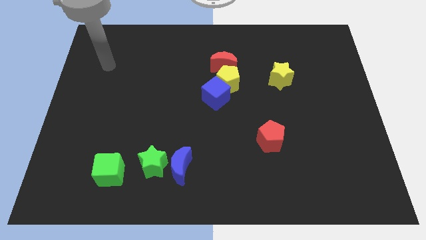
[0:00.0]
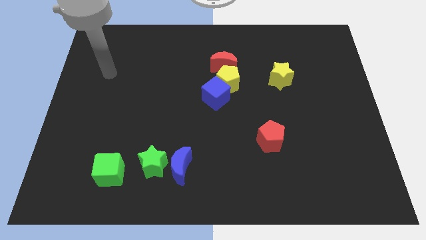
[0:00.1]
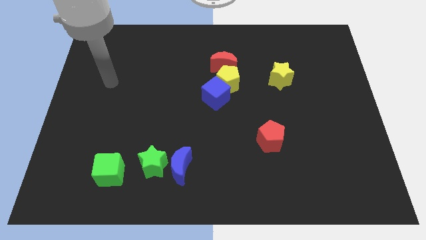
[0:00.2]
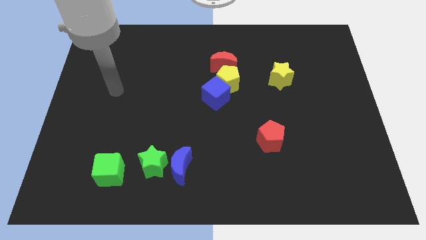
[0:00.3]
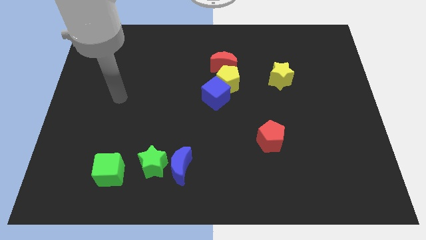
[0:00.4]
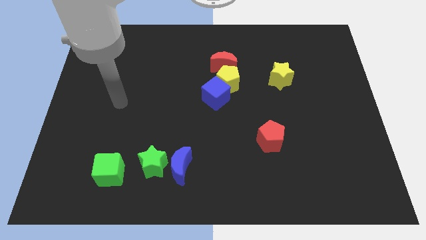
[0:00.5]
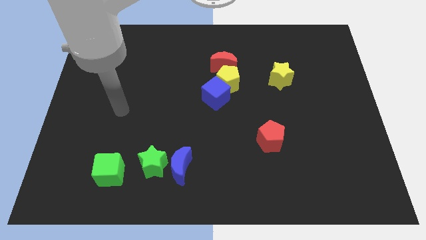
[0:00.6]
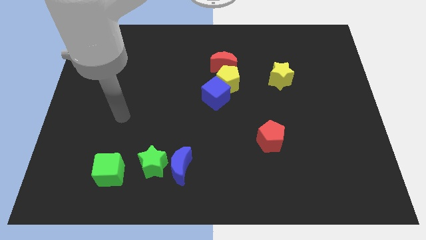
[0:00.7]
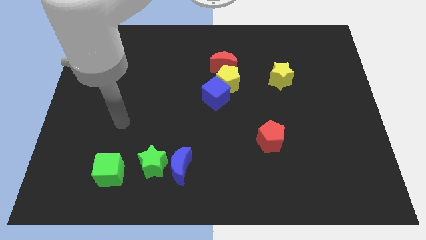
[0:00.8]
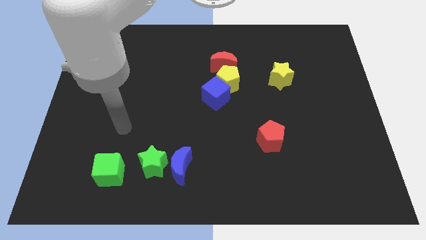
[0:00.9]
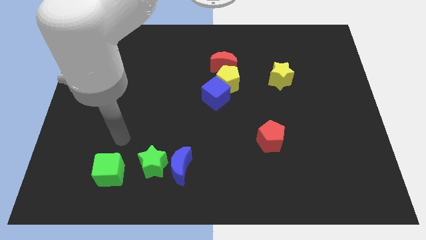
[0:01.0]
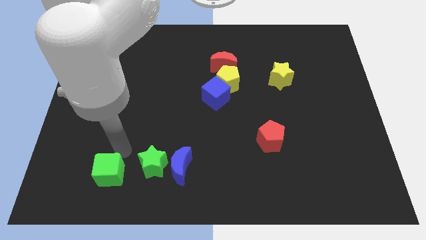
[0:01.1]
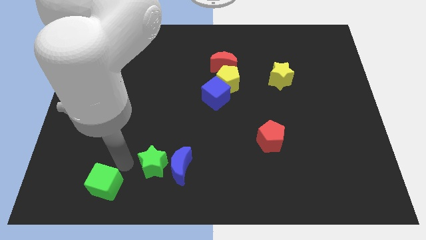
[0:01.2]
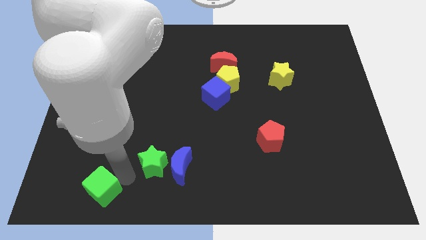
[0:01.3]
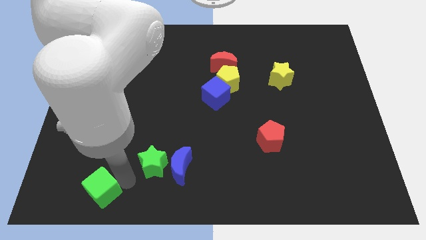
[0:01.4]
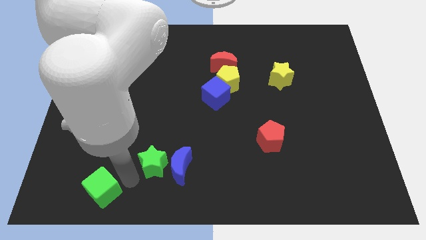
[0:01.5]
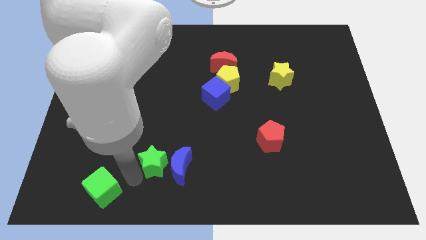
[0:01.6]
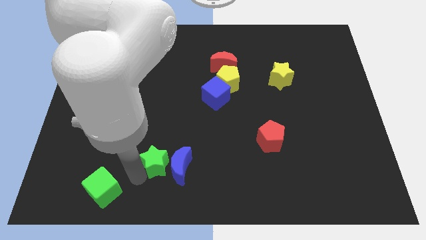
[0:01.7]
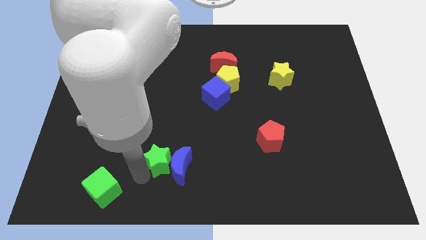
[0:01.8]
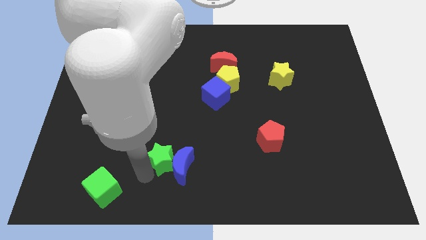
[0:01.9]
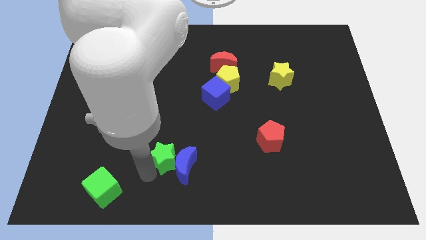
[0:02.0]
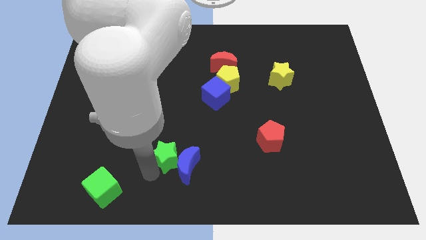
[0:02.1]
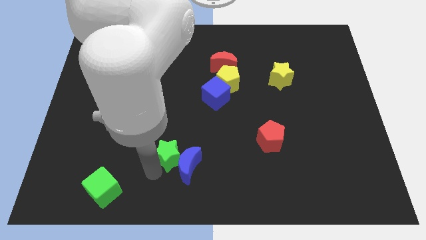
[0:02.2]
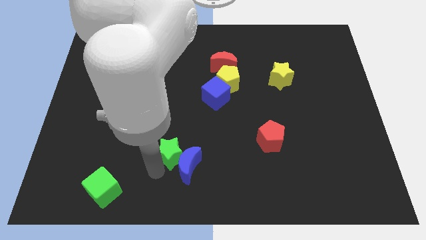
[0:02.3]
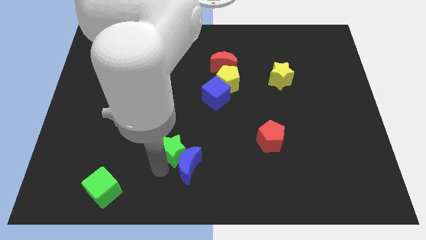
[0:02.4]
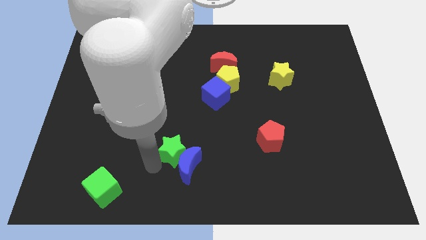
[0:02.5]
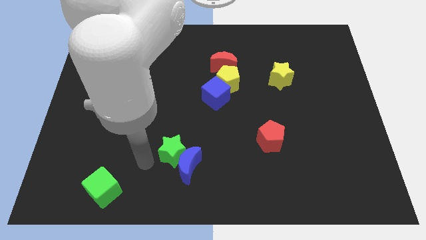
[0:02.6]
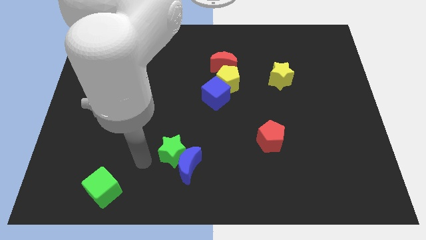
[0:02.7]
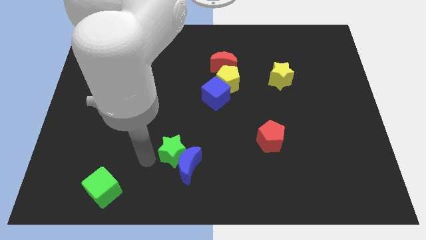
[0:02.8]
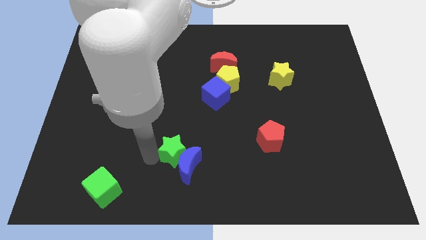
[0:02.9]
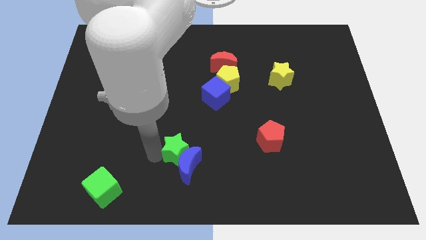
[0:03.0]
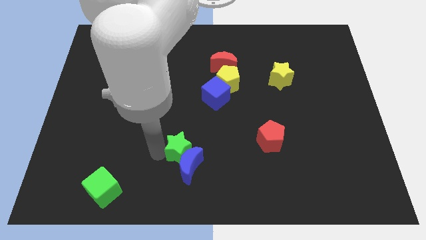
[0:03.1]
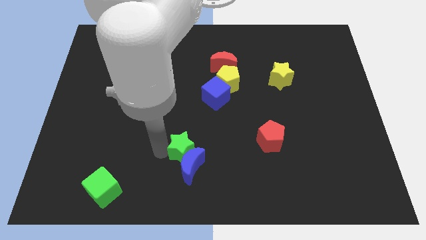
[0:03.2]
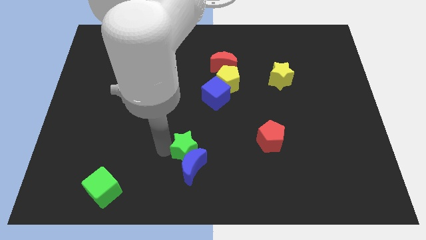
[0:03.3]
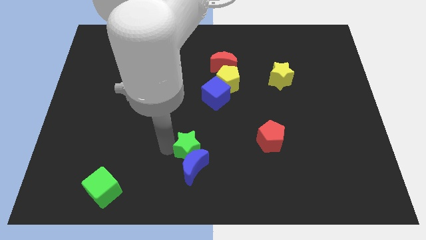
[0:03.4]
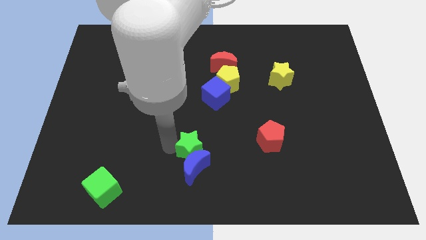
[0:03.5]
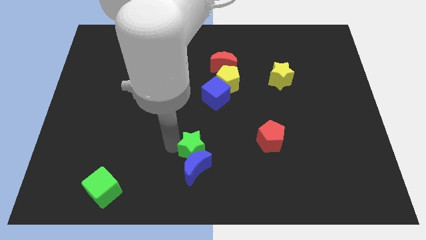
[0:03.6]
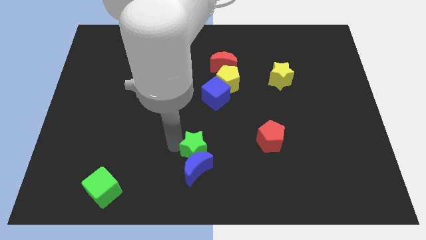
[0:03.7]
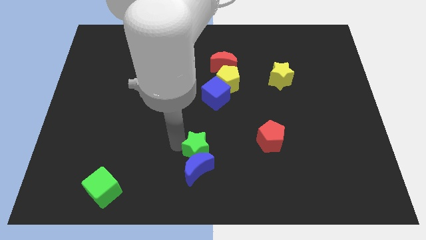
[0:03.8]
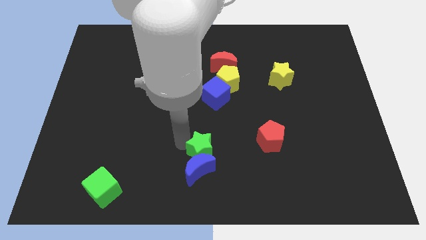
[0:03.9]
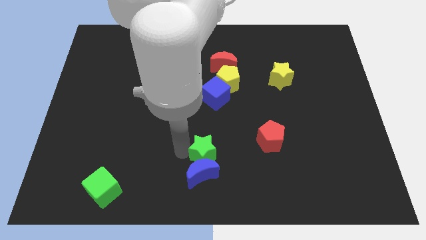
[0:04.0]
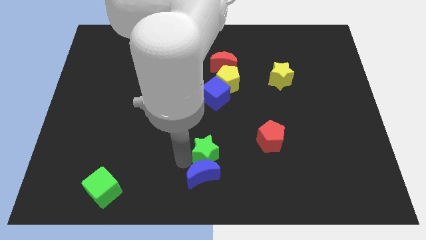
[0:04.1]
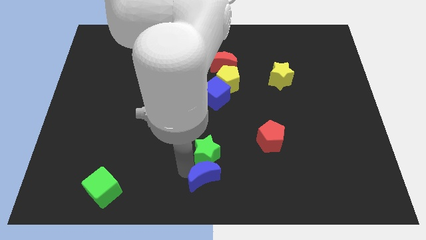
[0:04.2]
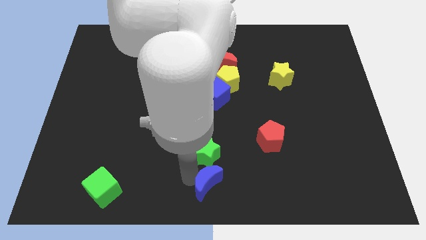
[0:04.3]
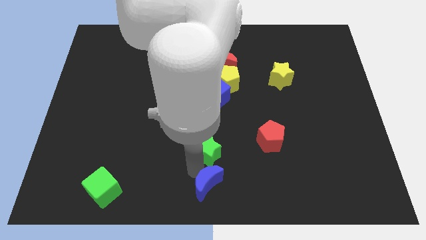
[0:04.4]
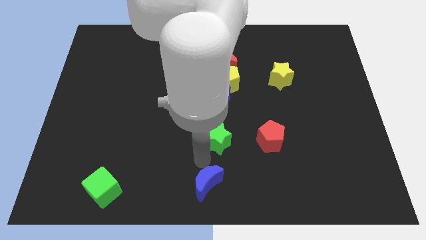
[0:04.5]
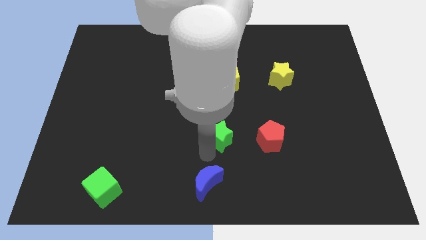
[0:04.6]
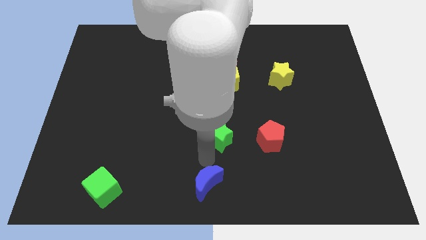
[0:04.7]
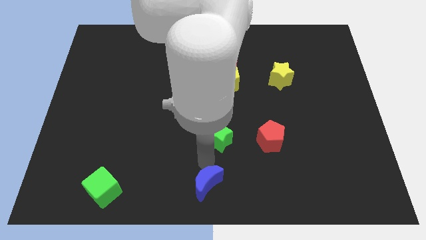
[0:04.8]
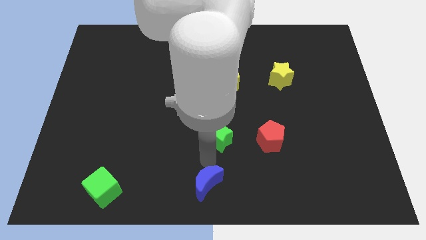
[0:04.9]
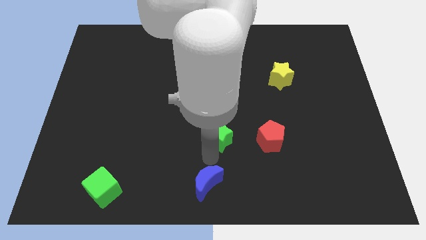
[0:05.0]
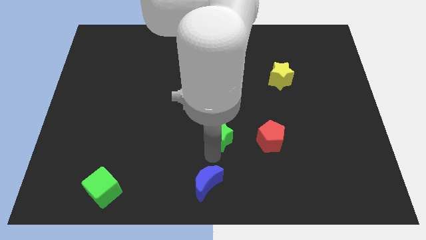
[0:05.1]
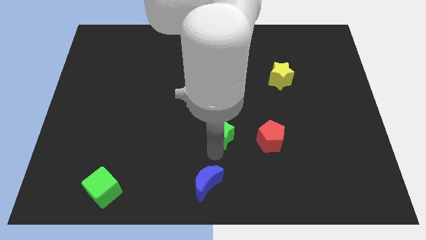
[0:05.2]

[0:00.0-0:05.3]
put the green star below the yellow pentagon

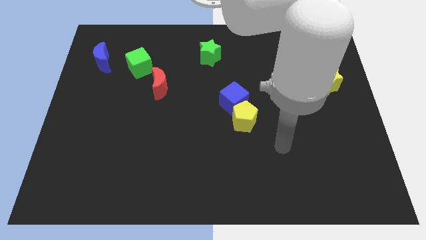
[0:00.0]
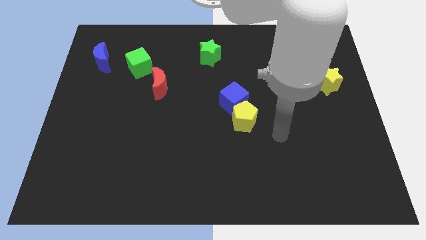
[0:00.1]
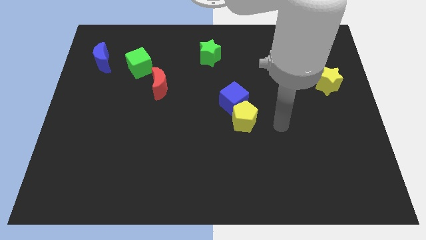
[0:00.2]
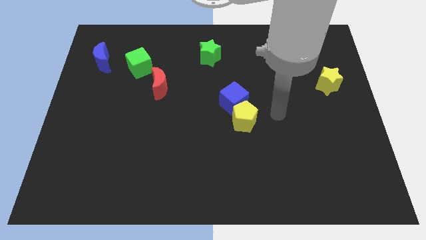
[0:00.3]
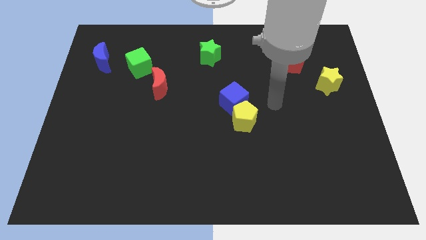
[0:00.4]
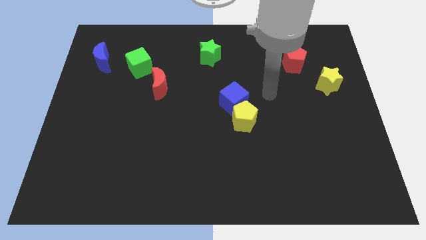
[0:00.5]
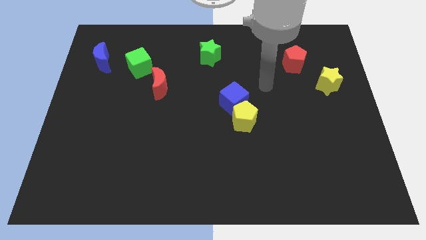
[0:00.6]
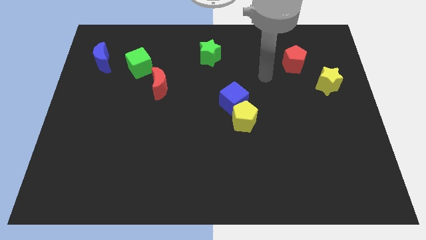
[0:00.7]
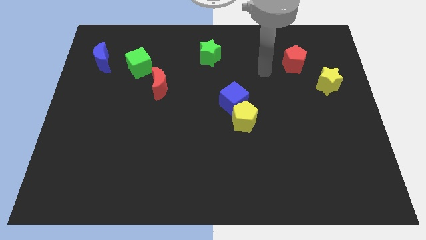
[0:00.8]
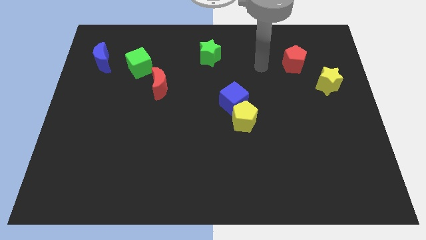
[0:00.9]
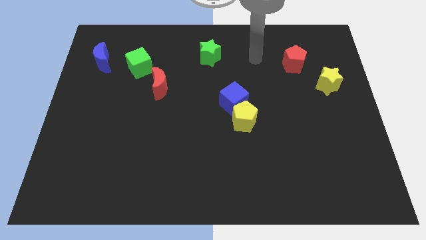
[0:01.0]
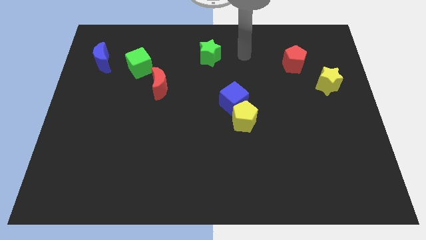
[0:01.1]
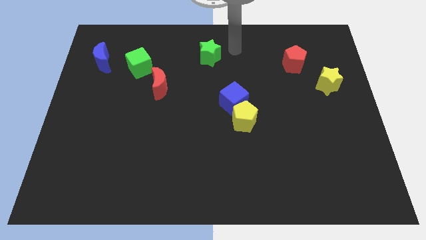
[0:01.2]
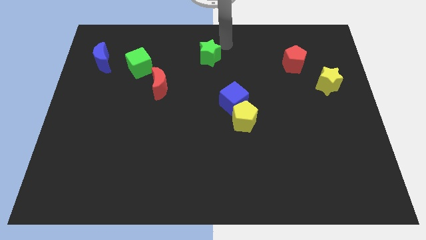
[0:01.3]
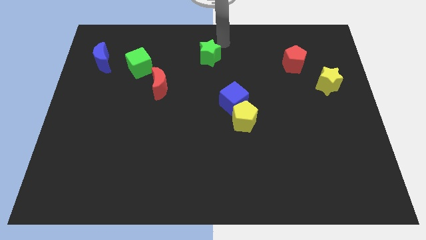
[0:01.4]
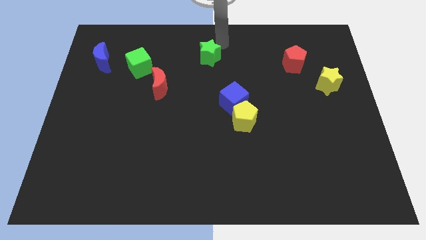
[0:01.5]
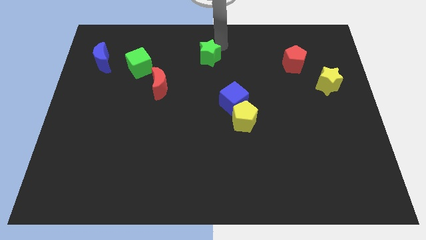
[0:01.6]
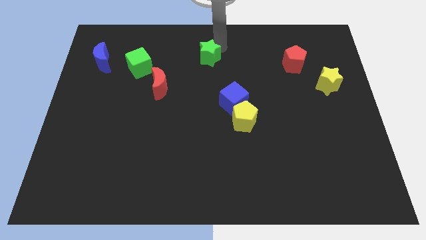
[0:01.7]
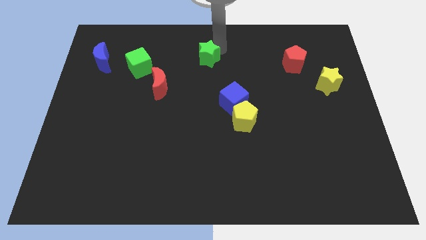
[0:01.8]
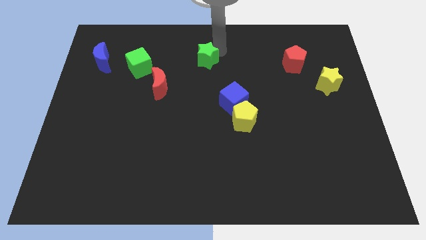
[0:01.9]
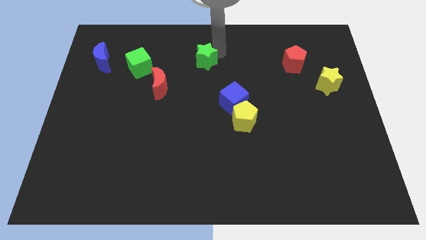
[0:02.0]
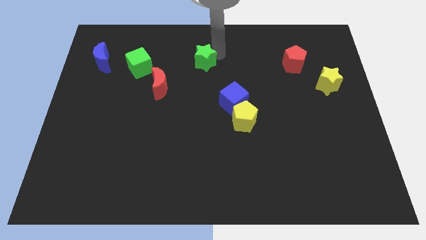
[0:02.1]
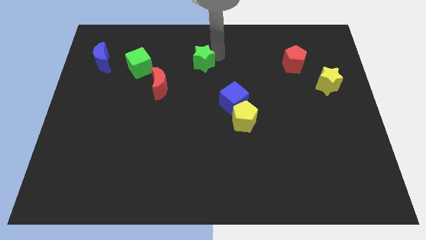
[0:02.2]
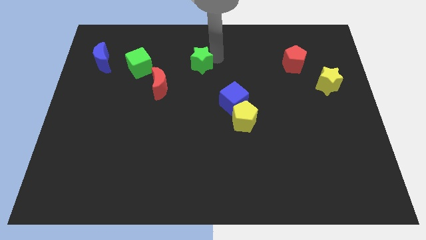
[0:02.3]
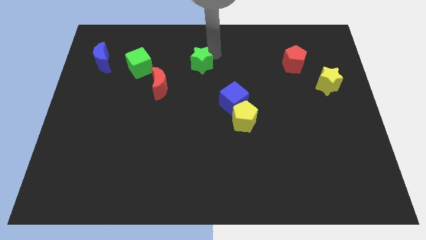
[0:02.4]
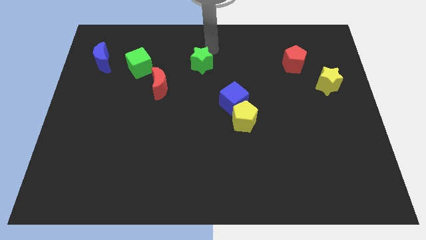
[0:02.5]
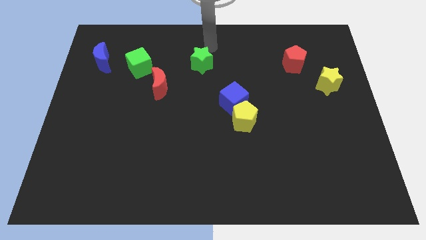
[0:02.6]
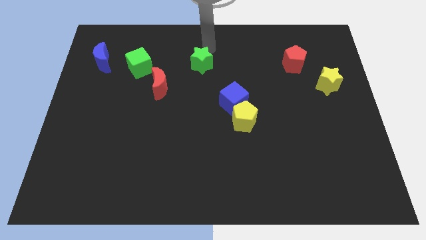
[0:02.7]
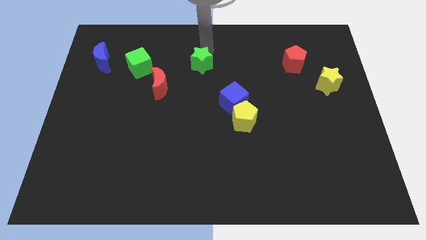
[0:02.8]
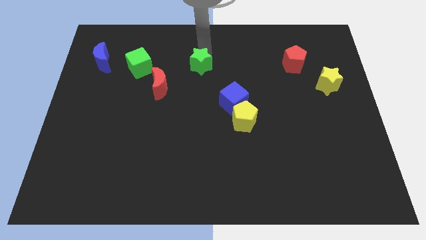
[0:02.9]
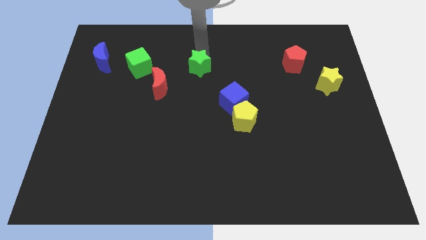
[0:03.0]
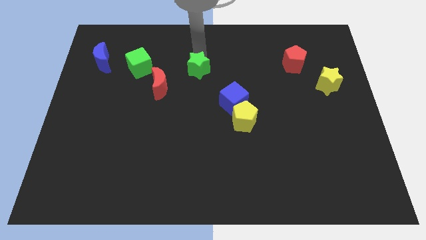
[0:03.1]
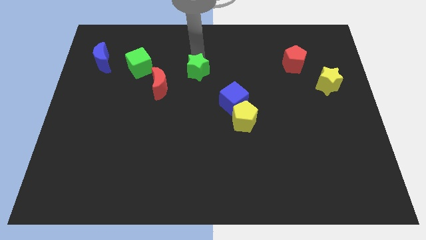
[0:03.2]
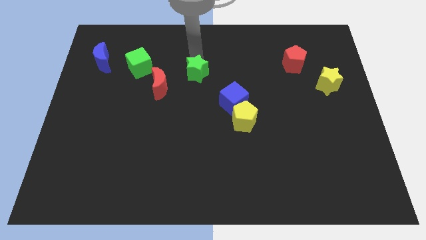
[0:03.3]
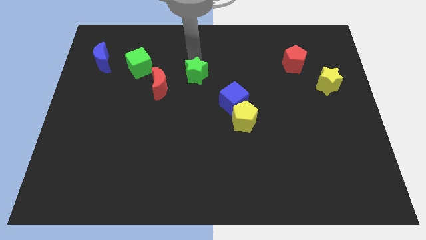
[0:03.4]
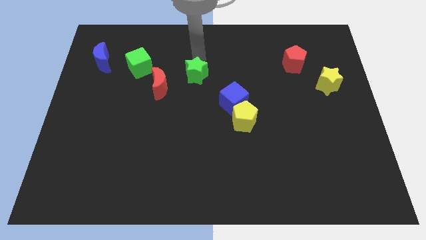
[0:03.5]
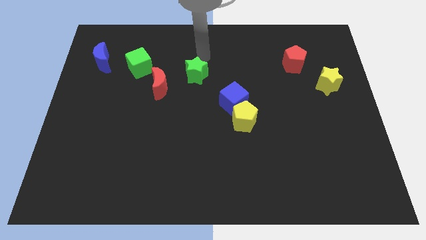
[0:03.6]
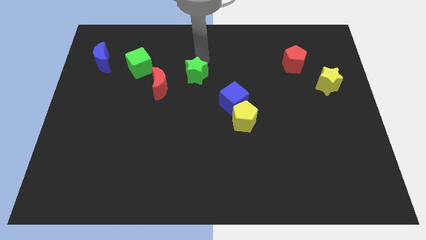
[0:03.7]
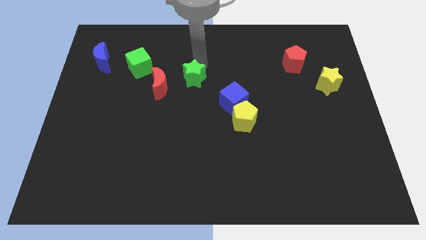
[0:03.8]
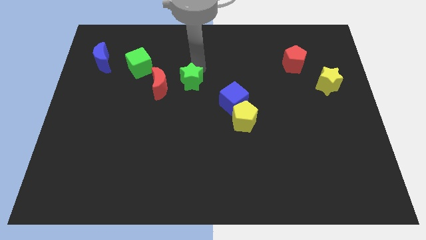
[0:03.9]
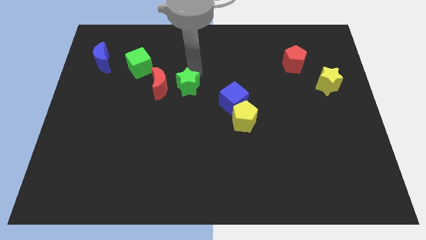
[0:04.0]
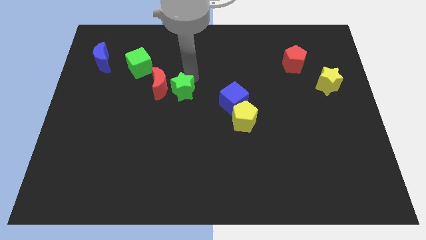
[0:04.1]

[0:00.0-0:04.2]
push the green star to the left side of the blue cube
